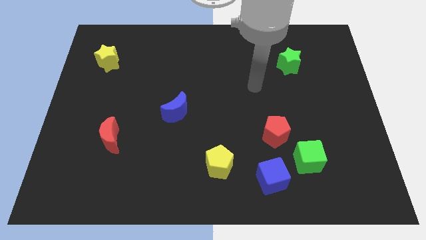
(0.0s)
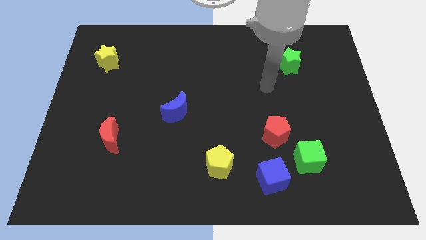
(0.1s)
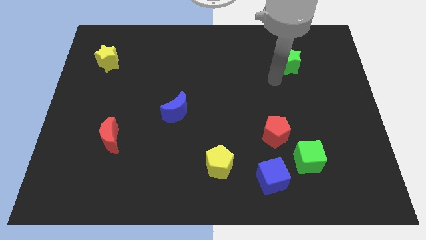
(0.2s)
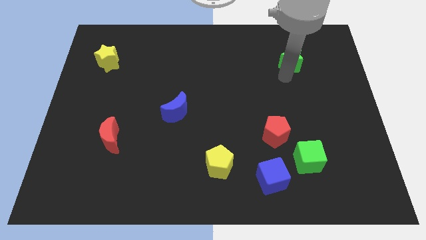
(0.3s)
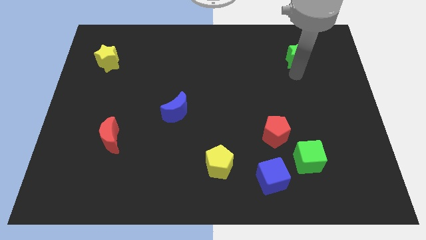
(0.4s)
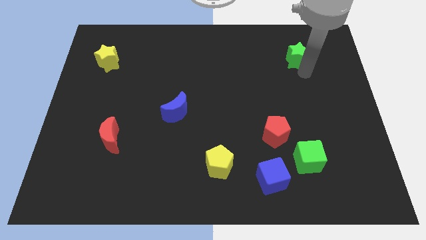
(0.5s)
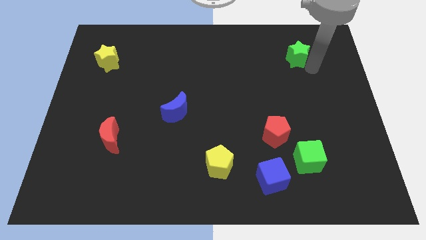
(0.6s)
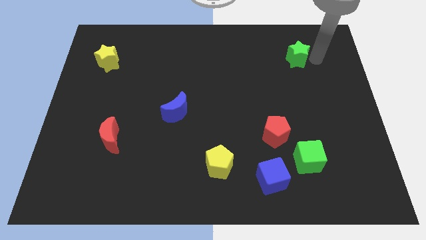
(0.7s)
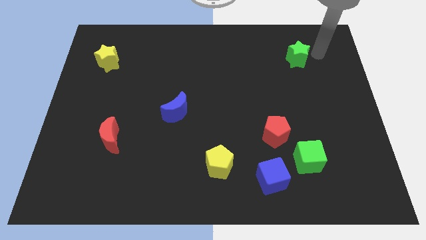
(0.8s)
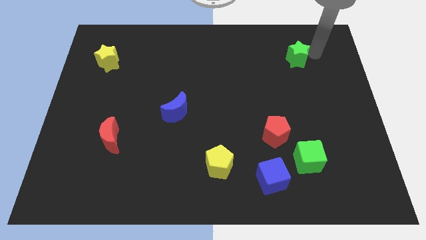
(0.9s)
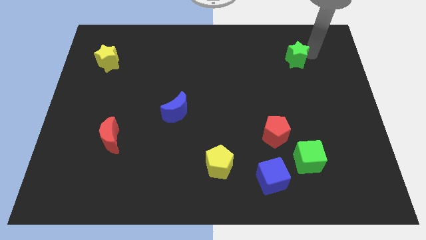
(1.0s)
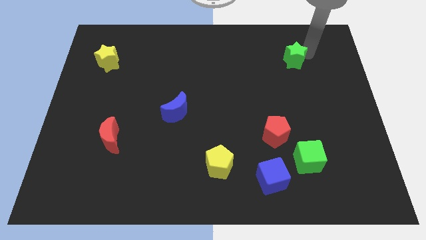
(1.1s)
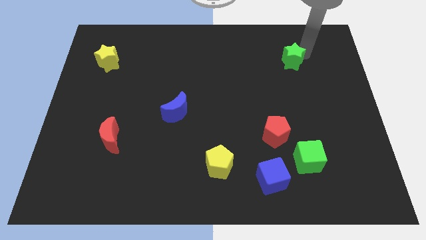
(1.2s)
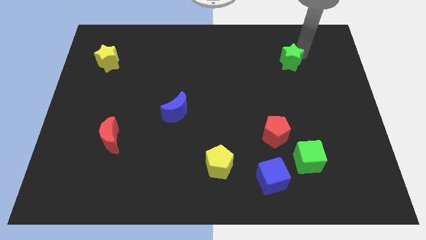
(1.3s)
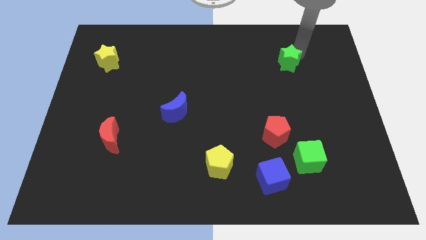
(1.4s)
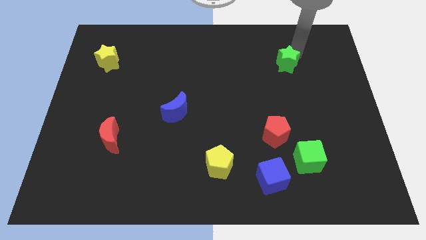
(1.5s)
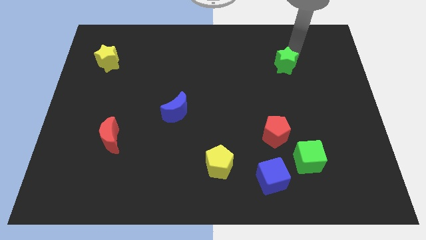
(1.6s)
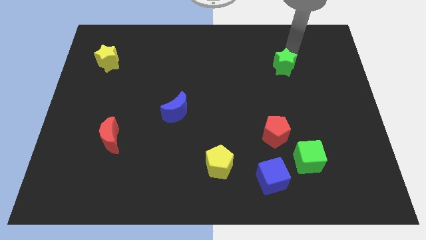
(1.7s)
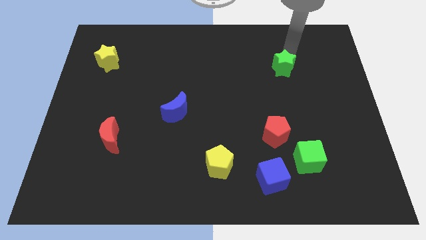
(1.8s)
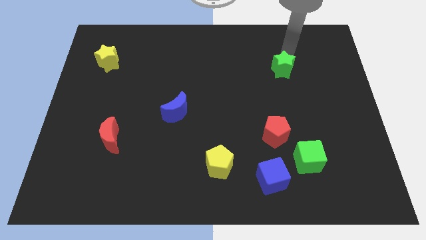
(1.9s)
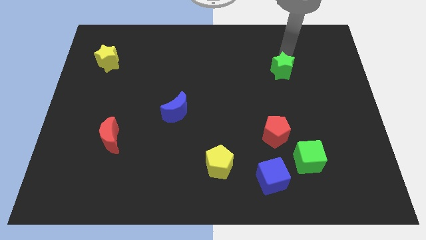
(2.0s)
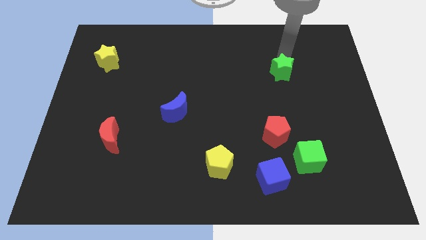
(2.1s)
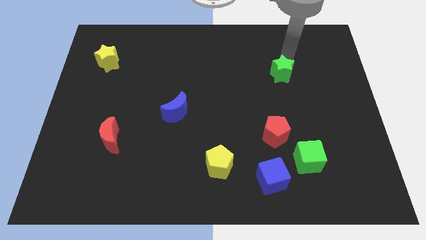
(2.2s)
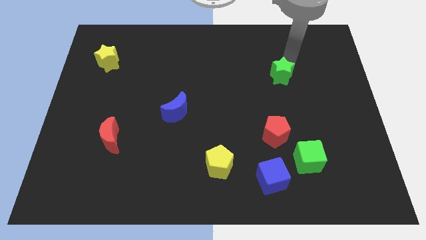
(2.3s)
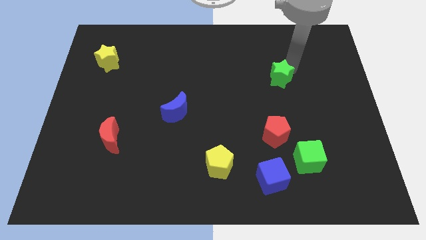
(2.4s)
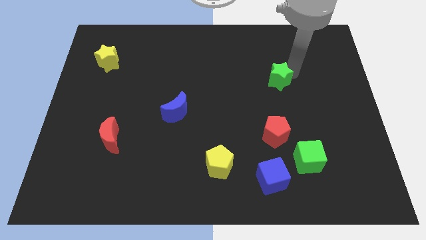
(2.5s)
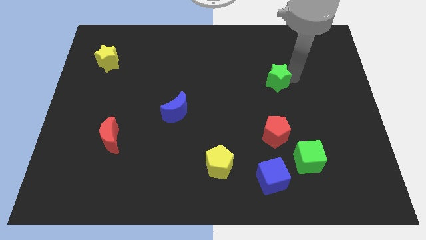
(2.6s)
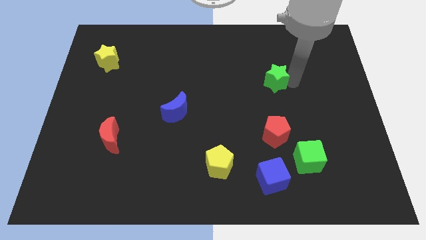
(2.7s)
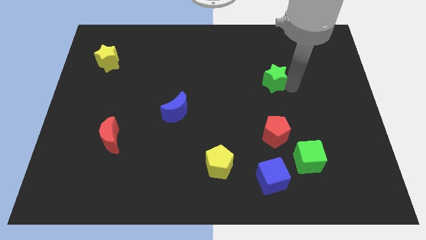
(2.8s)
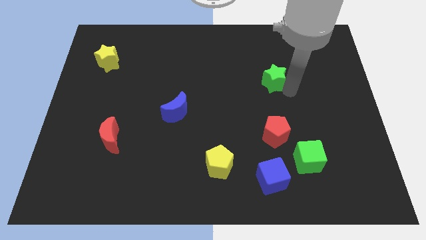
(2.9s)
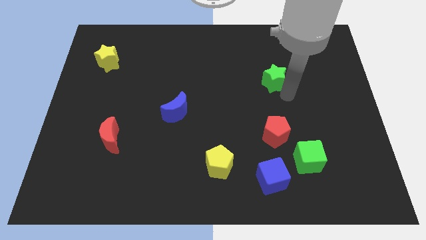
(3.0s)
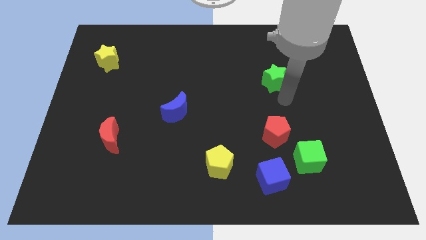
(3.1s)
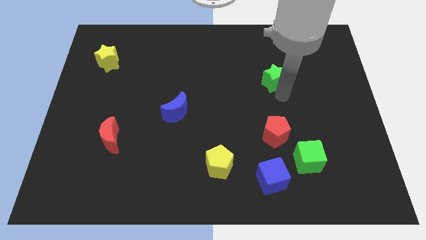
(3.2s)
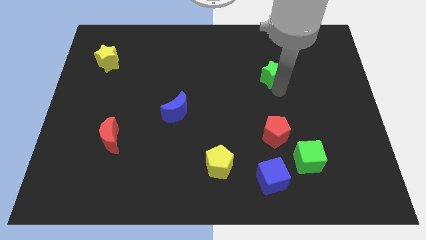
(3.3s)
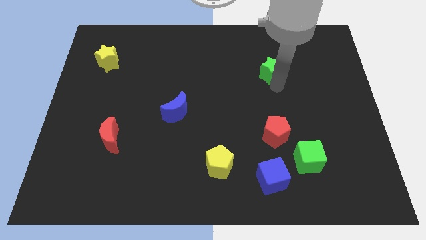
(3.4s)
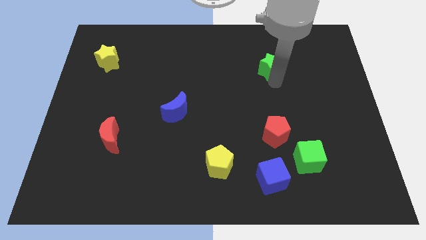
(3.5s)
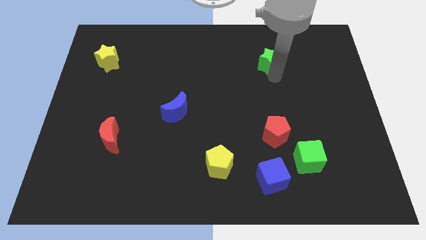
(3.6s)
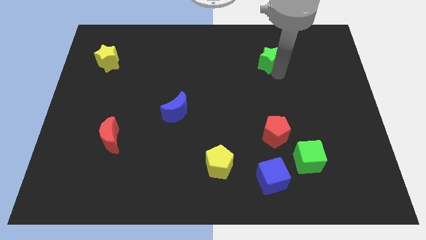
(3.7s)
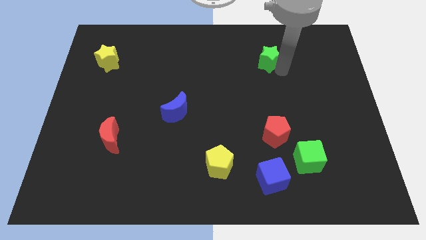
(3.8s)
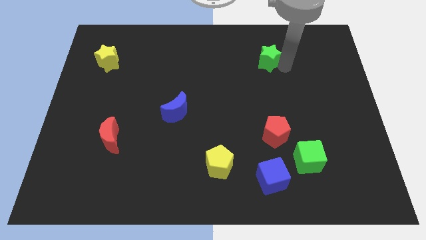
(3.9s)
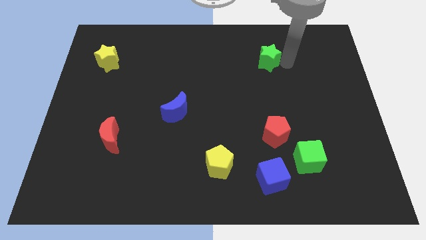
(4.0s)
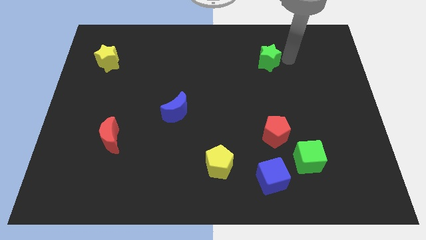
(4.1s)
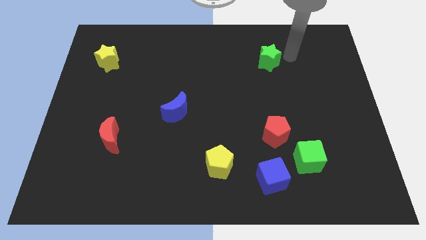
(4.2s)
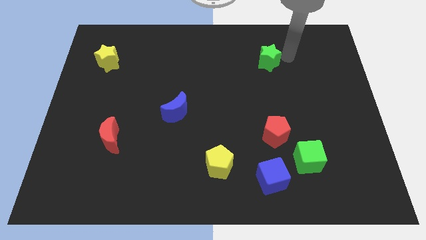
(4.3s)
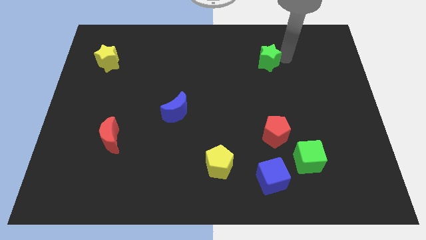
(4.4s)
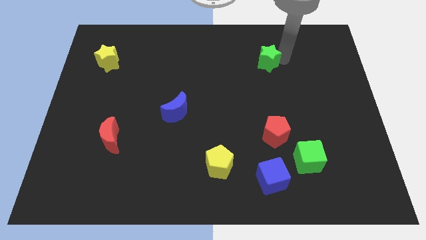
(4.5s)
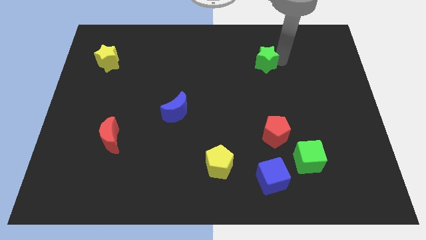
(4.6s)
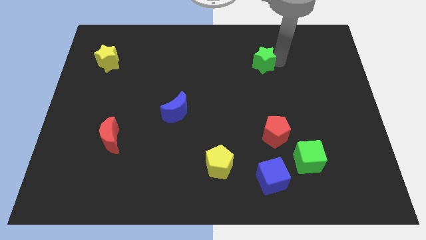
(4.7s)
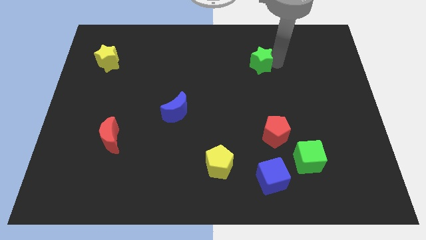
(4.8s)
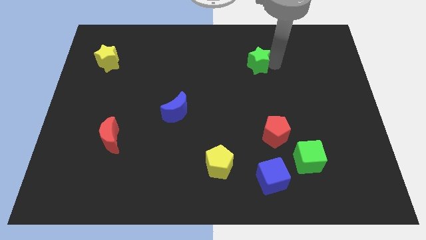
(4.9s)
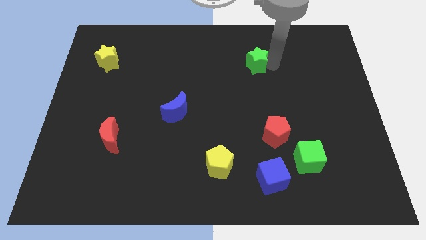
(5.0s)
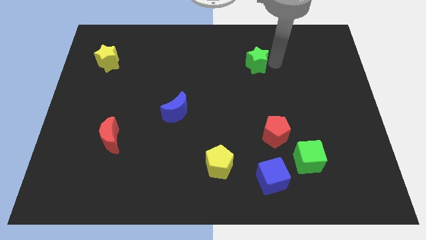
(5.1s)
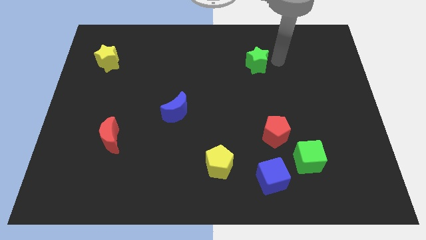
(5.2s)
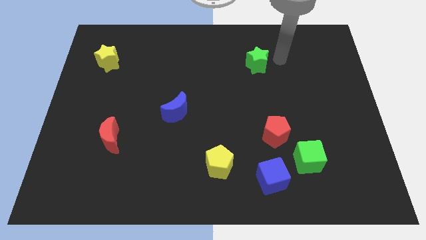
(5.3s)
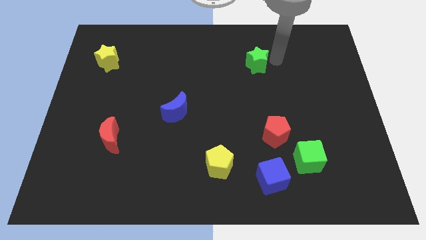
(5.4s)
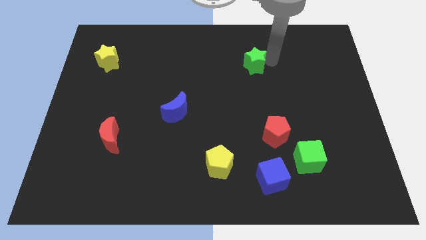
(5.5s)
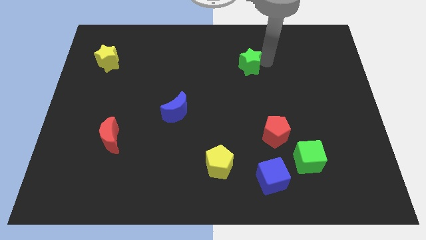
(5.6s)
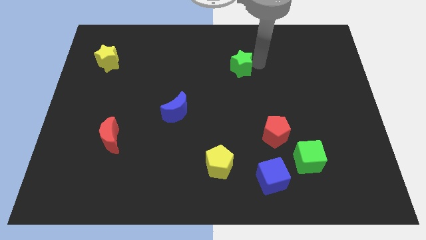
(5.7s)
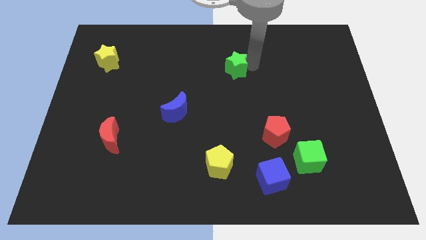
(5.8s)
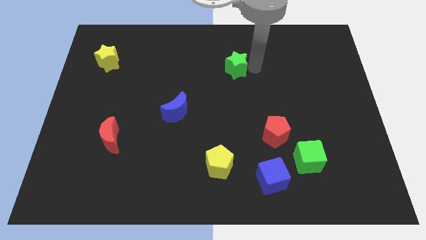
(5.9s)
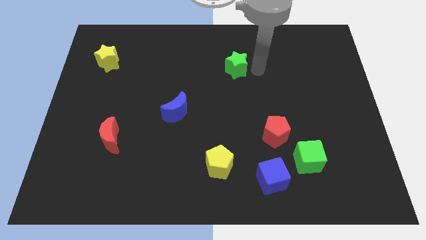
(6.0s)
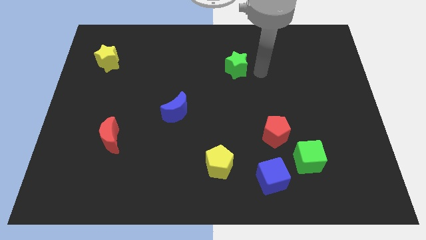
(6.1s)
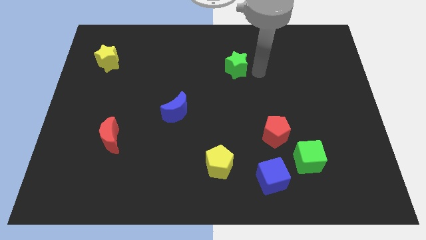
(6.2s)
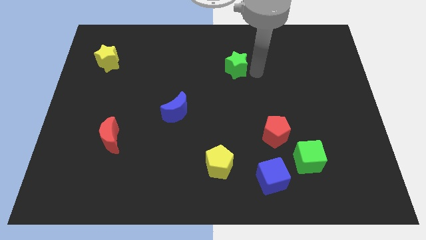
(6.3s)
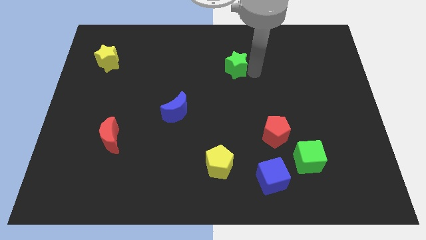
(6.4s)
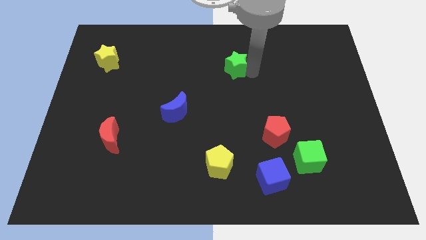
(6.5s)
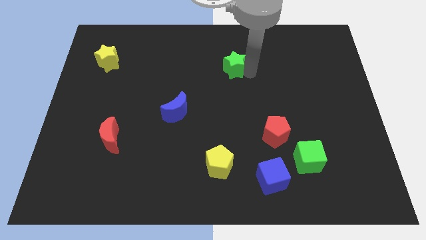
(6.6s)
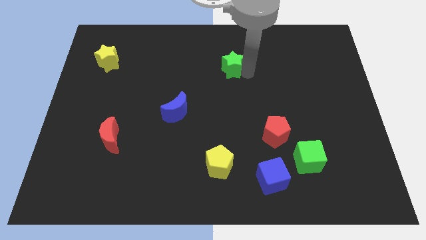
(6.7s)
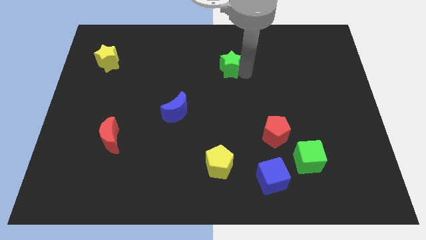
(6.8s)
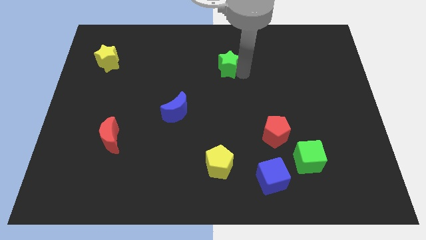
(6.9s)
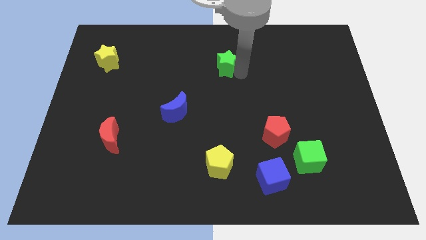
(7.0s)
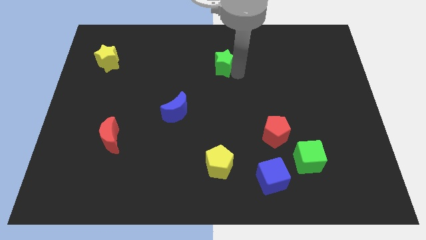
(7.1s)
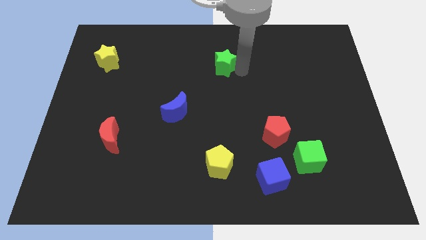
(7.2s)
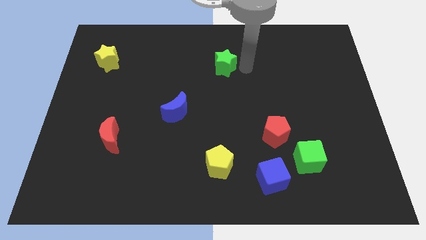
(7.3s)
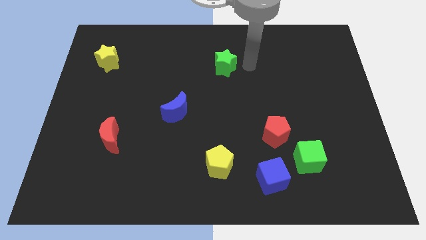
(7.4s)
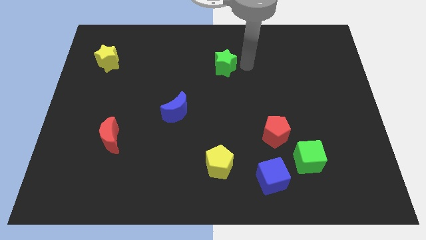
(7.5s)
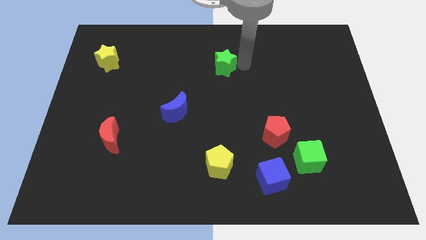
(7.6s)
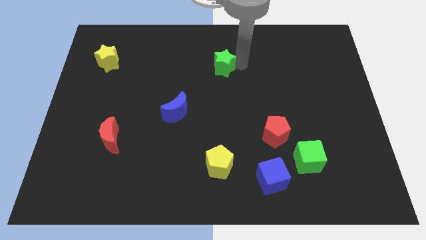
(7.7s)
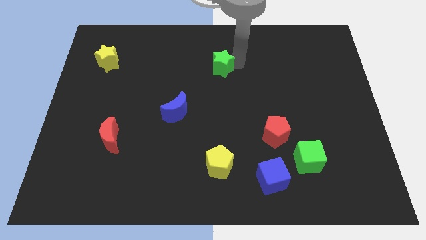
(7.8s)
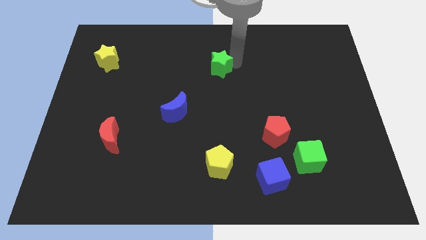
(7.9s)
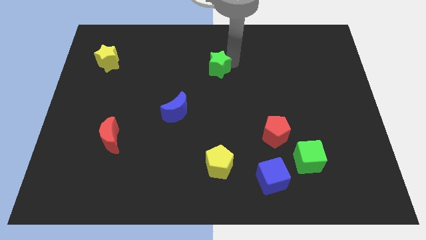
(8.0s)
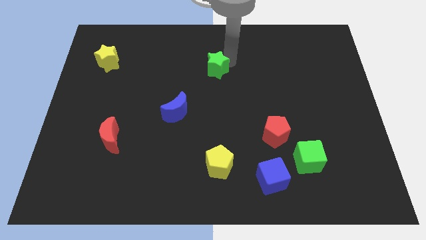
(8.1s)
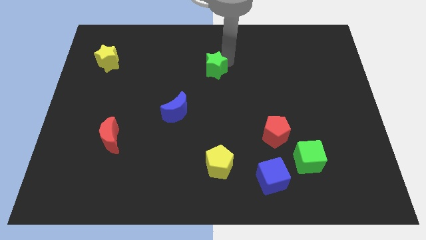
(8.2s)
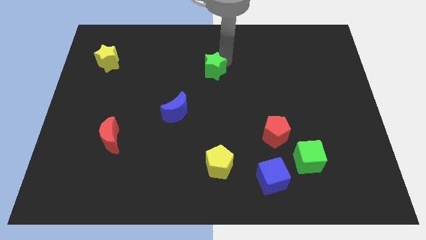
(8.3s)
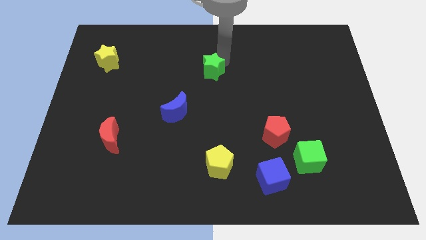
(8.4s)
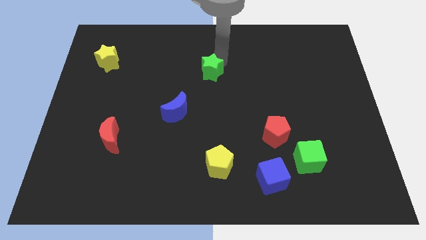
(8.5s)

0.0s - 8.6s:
push the green star left
